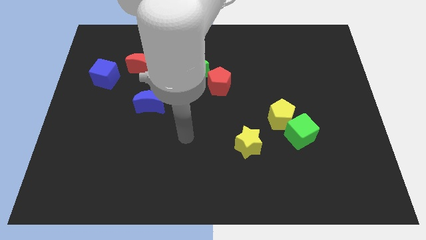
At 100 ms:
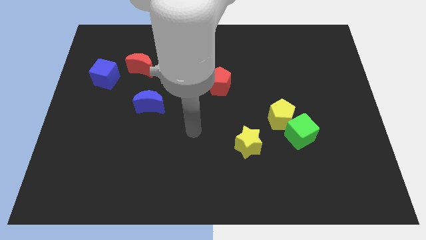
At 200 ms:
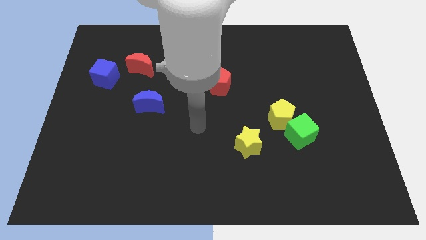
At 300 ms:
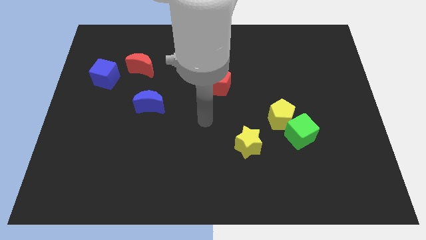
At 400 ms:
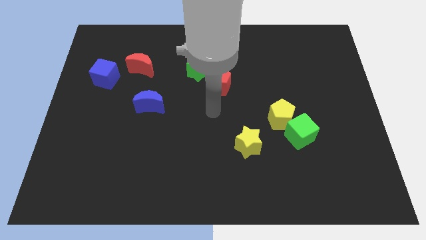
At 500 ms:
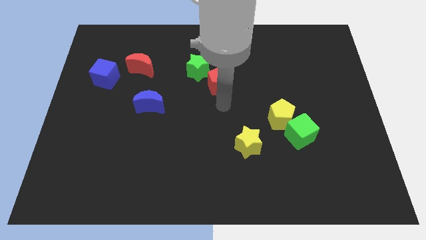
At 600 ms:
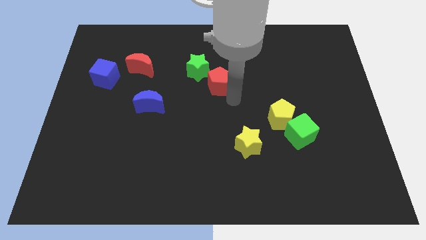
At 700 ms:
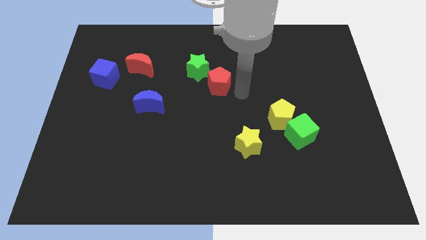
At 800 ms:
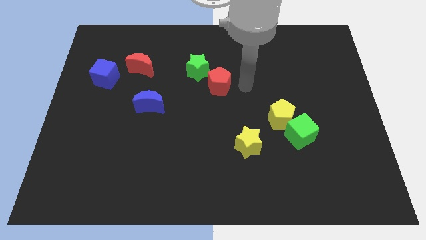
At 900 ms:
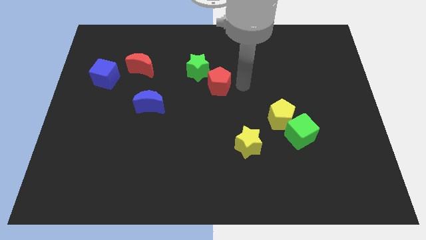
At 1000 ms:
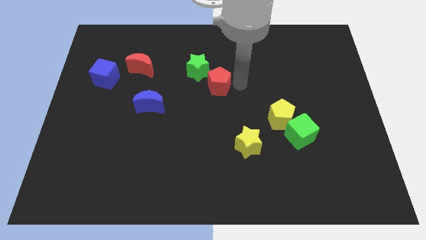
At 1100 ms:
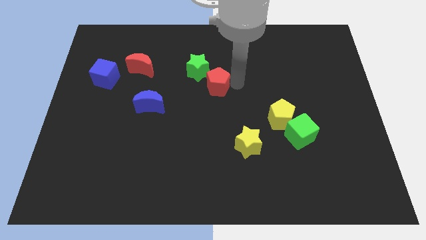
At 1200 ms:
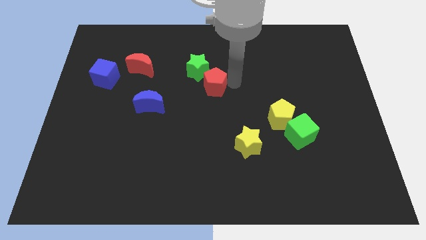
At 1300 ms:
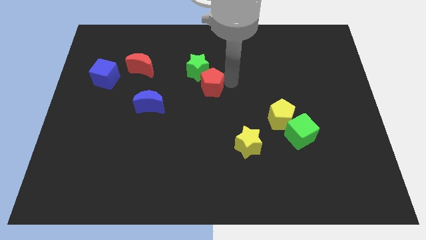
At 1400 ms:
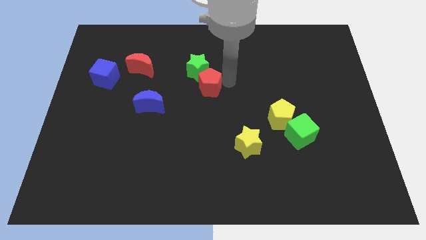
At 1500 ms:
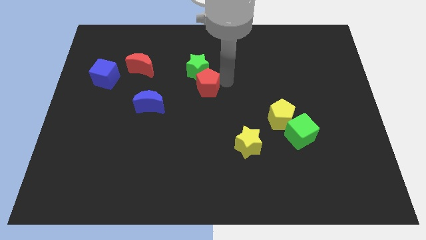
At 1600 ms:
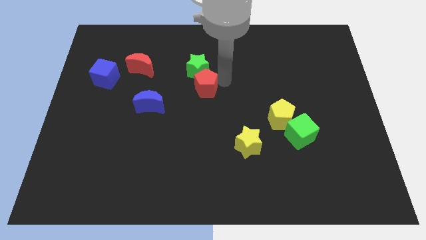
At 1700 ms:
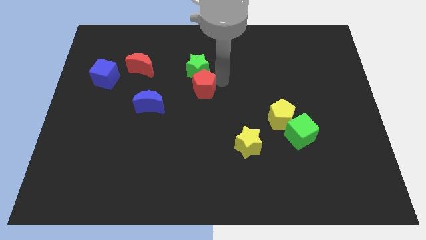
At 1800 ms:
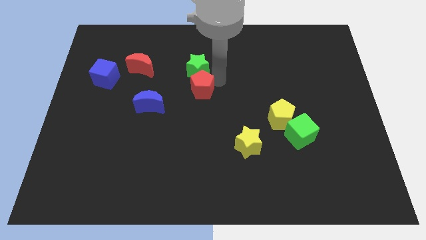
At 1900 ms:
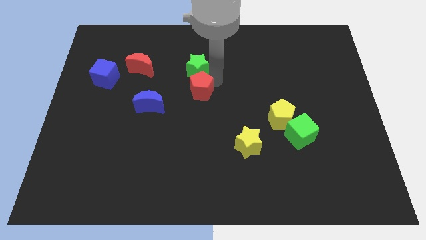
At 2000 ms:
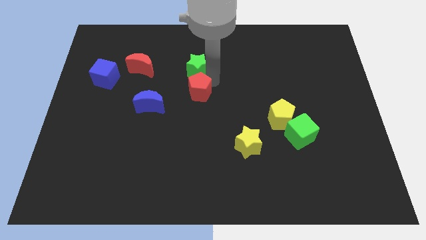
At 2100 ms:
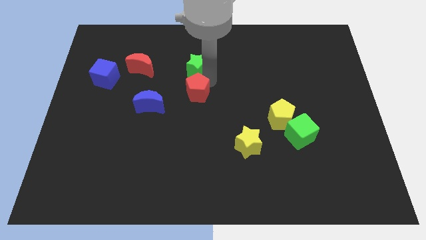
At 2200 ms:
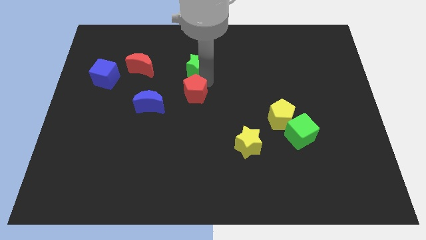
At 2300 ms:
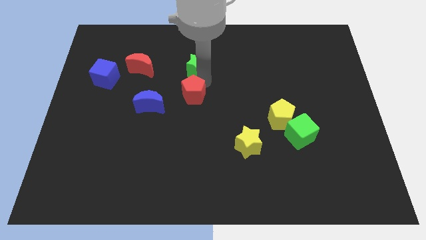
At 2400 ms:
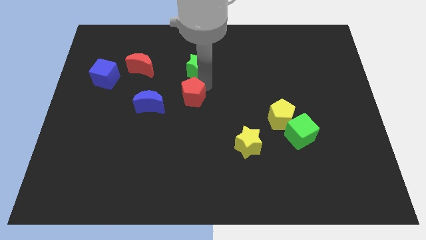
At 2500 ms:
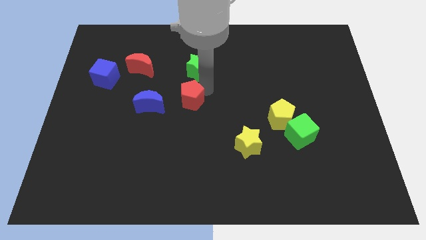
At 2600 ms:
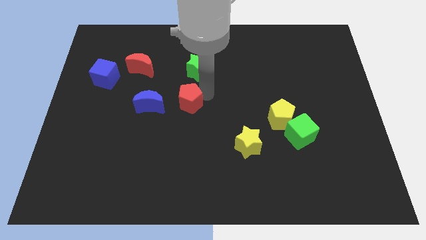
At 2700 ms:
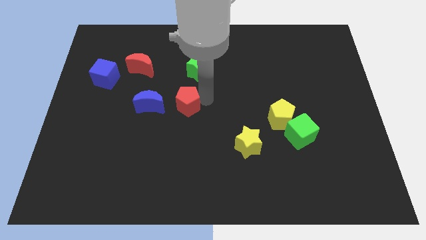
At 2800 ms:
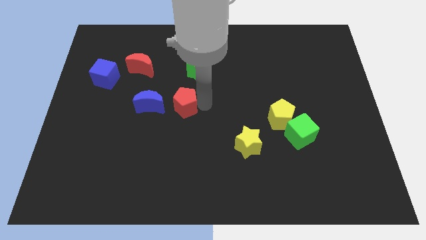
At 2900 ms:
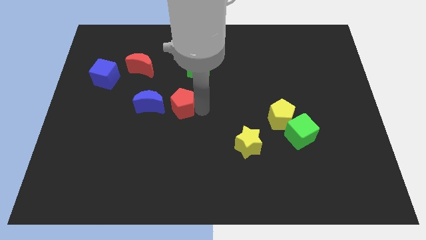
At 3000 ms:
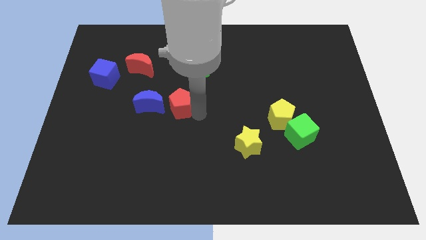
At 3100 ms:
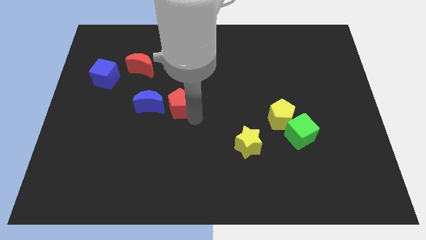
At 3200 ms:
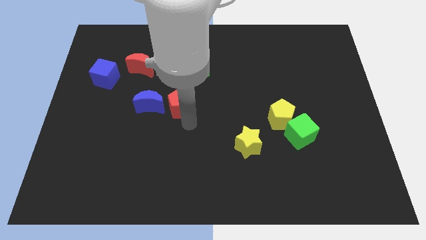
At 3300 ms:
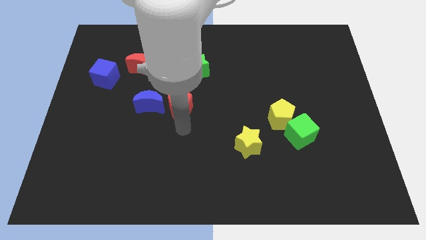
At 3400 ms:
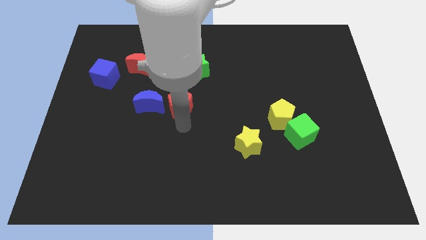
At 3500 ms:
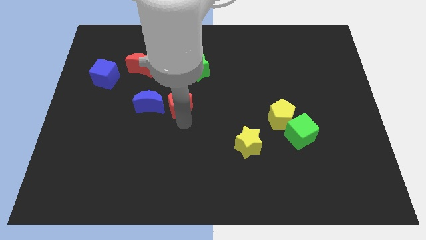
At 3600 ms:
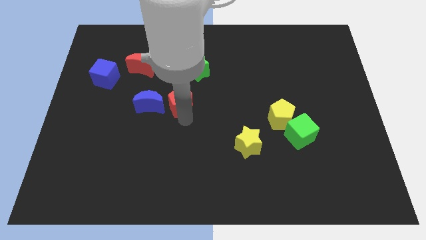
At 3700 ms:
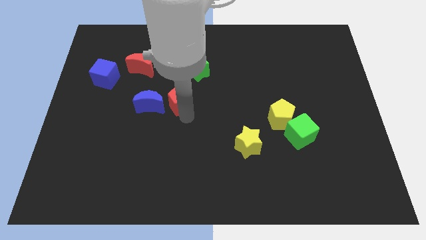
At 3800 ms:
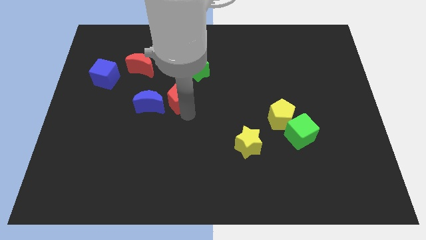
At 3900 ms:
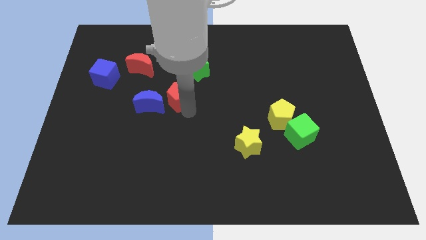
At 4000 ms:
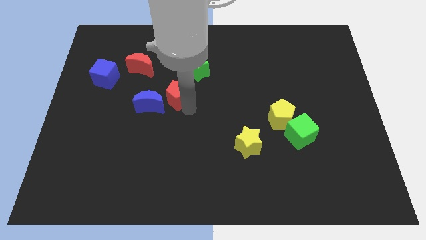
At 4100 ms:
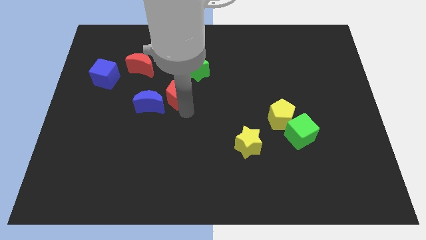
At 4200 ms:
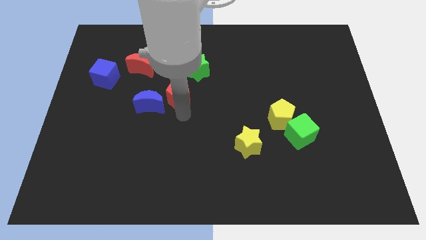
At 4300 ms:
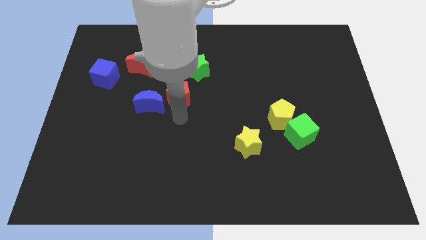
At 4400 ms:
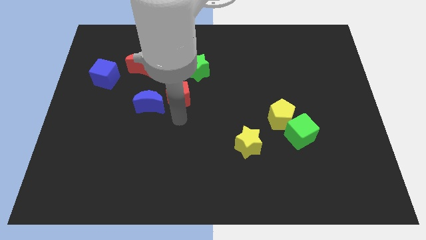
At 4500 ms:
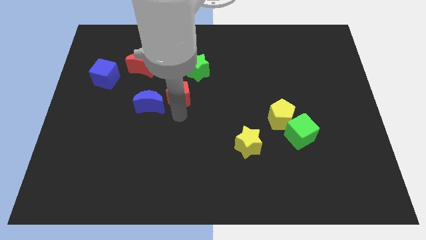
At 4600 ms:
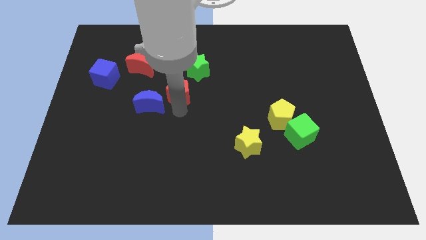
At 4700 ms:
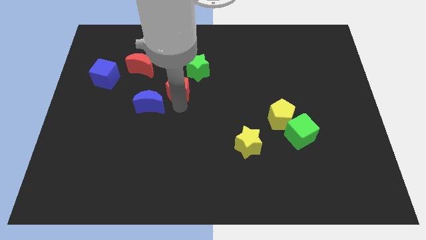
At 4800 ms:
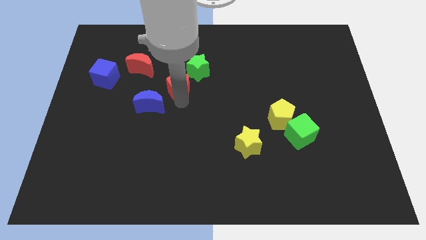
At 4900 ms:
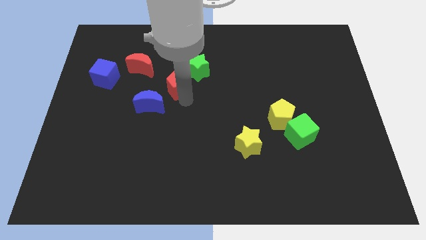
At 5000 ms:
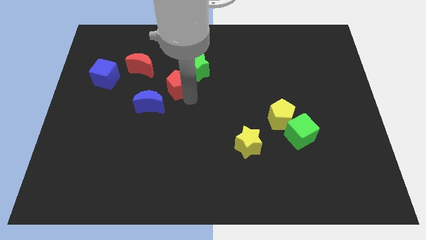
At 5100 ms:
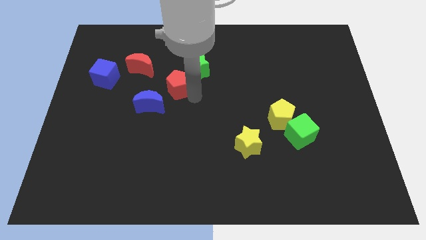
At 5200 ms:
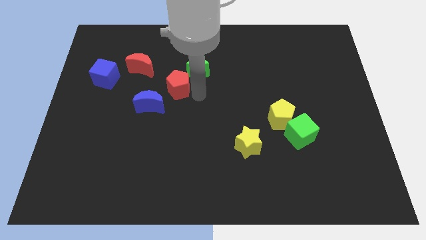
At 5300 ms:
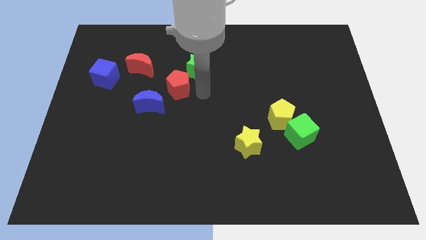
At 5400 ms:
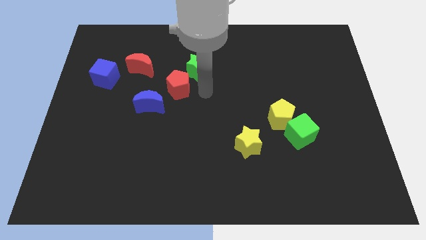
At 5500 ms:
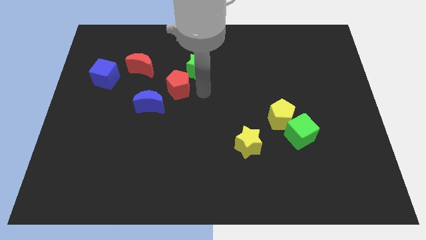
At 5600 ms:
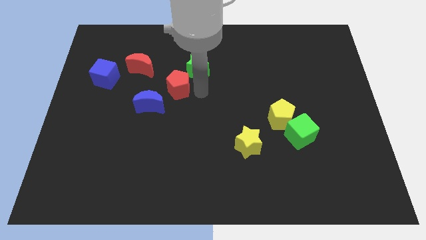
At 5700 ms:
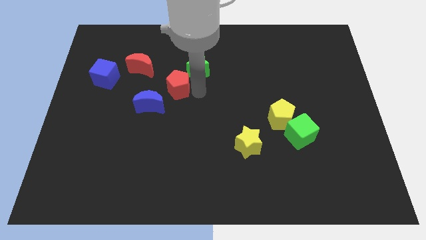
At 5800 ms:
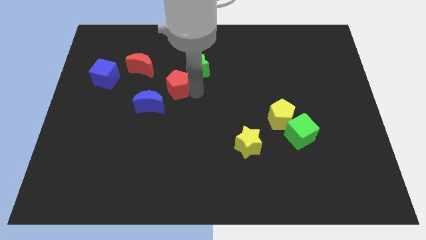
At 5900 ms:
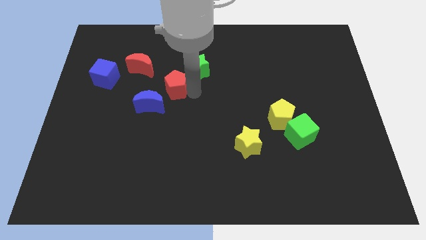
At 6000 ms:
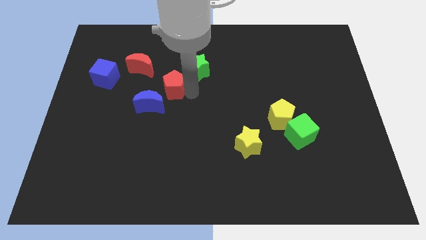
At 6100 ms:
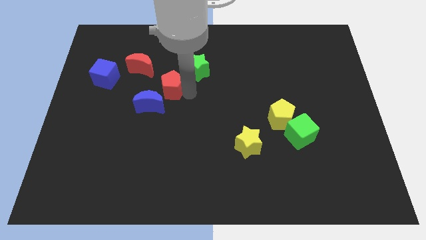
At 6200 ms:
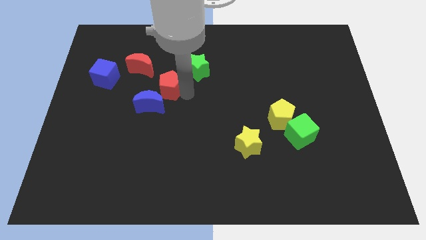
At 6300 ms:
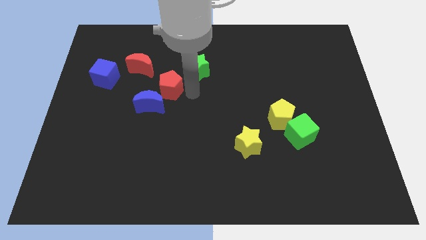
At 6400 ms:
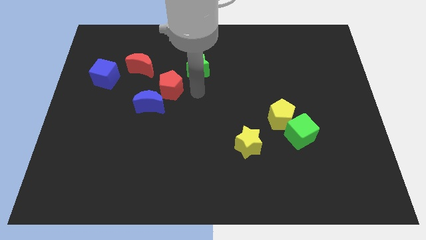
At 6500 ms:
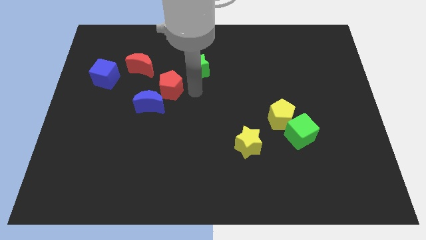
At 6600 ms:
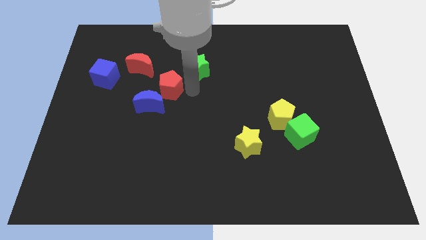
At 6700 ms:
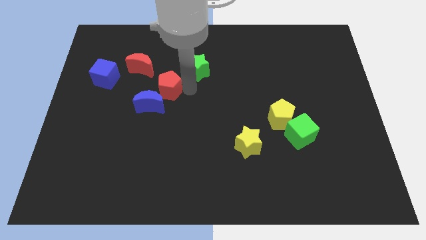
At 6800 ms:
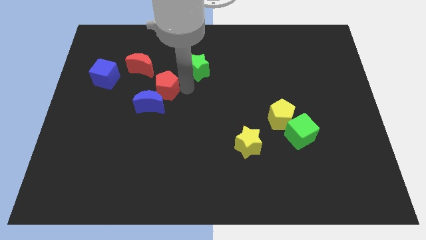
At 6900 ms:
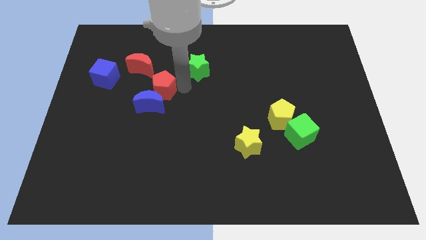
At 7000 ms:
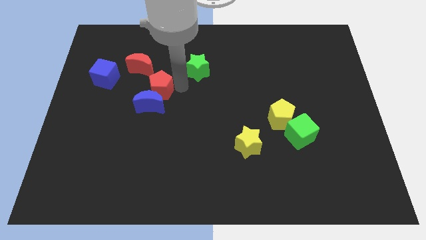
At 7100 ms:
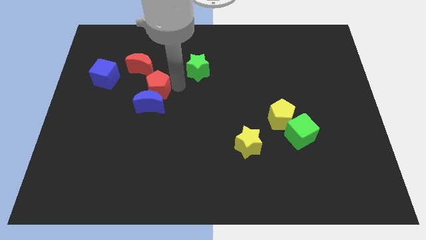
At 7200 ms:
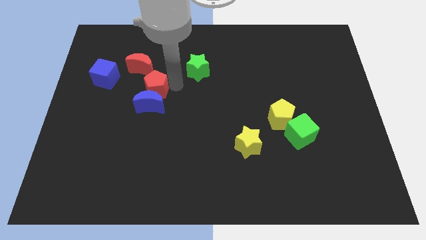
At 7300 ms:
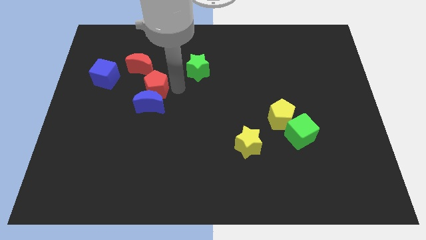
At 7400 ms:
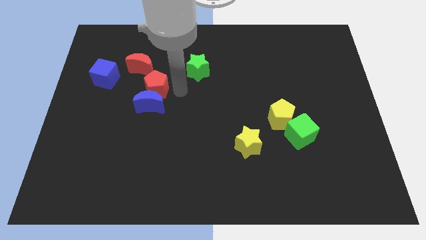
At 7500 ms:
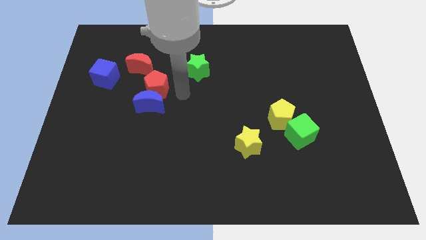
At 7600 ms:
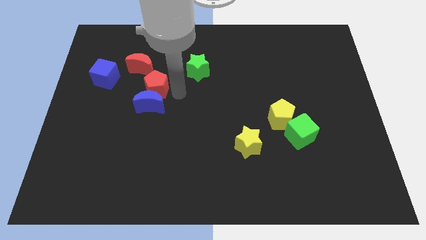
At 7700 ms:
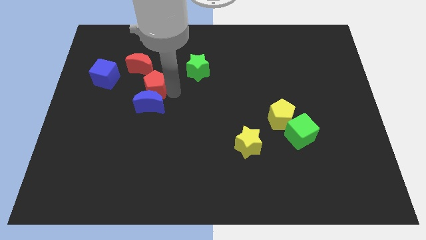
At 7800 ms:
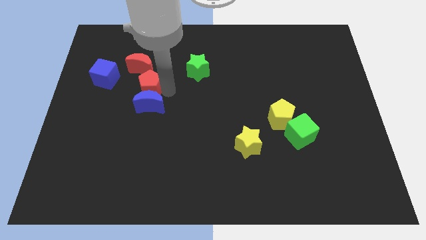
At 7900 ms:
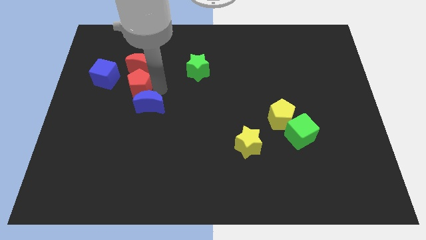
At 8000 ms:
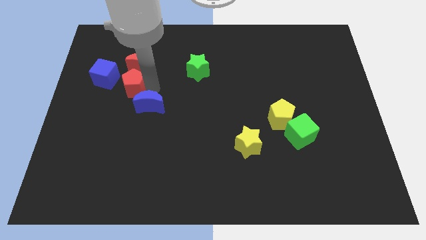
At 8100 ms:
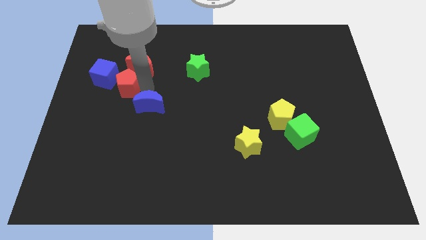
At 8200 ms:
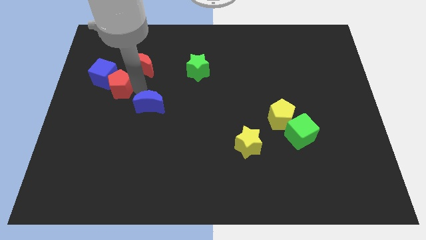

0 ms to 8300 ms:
move the red pentagon to the blue cube
